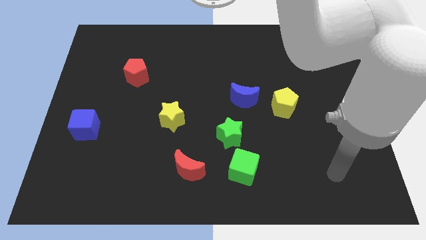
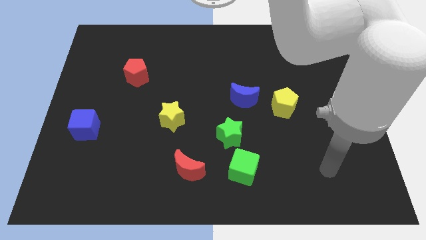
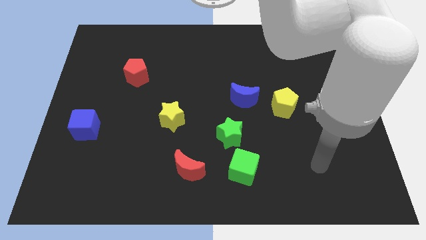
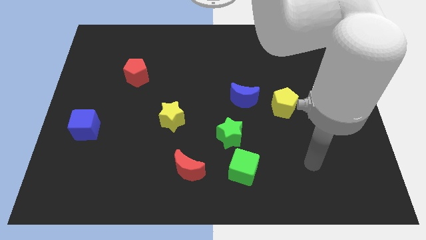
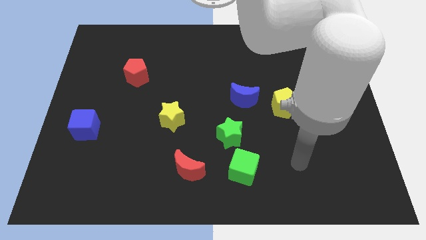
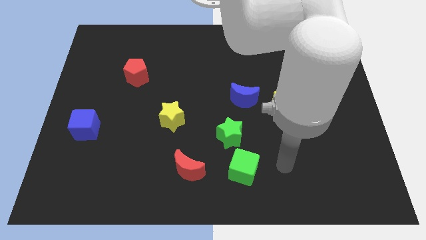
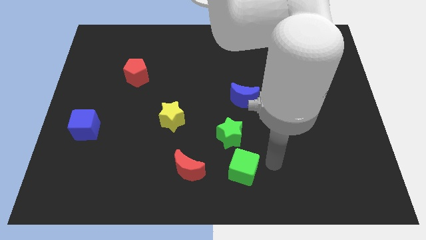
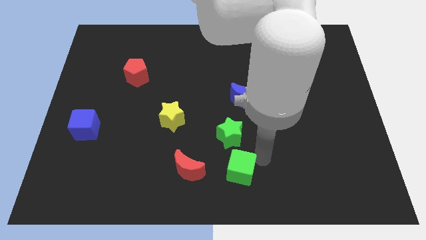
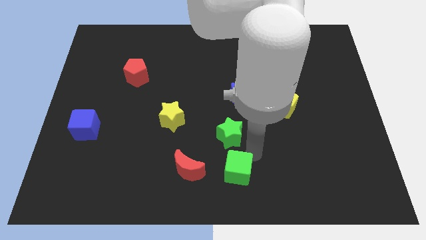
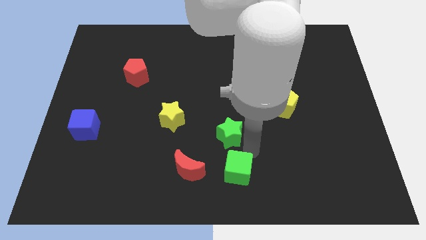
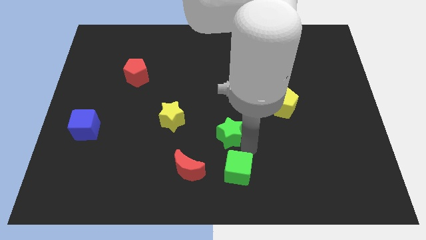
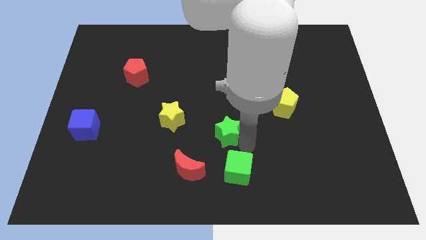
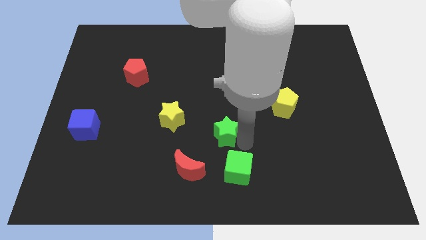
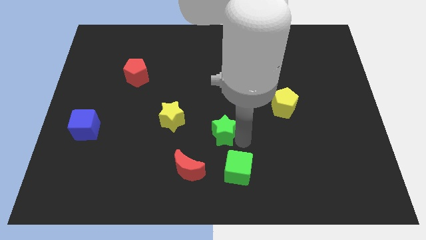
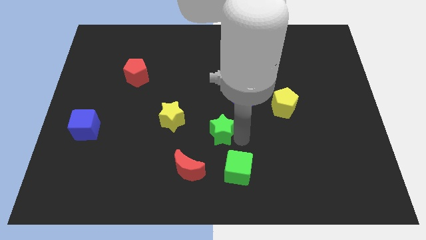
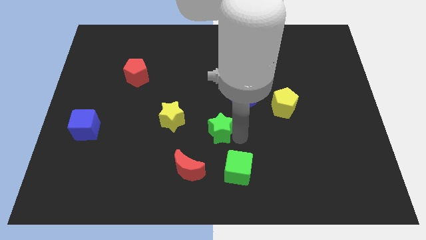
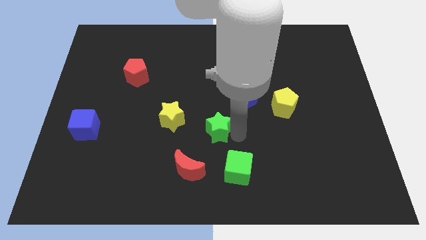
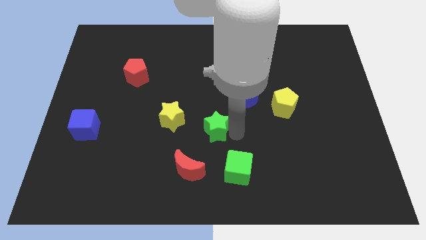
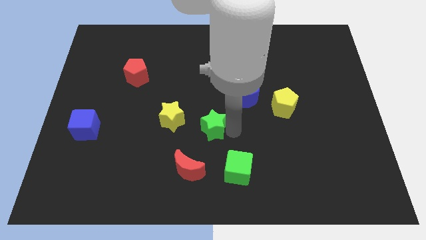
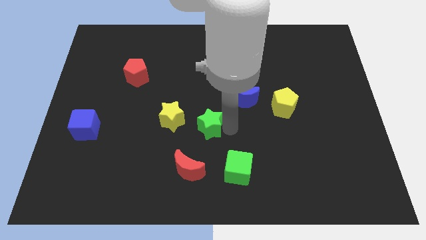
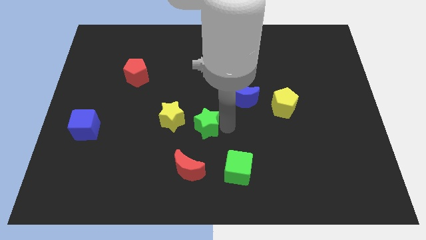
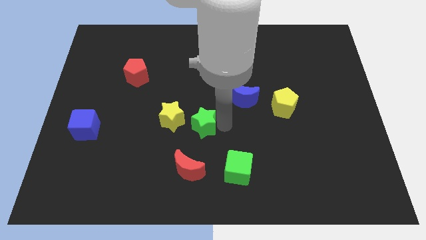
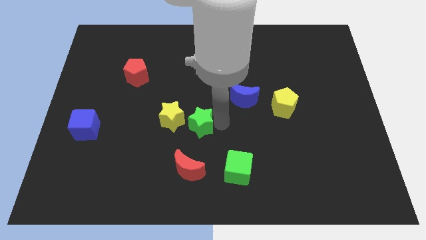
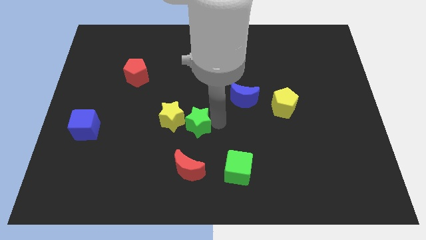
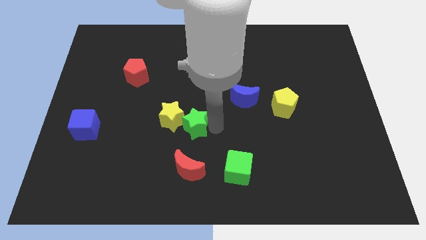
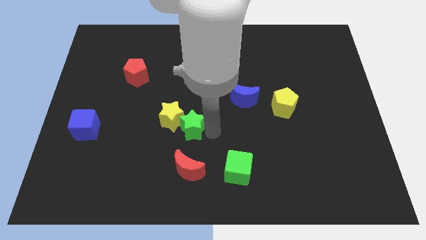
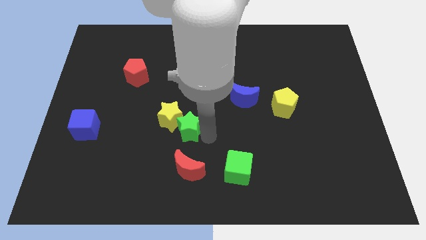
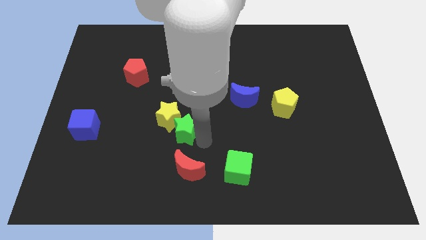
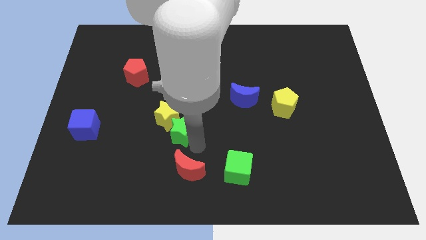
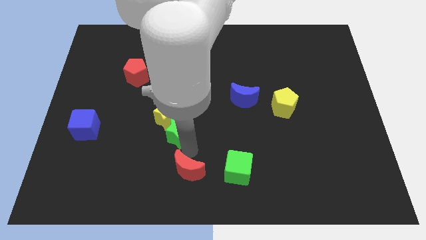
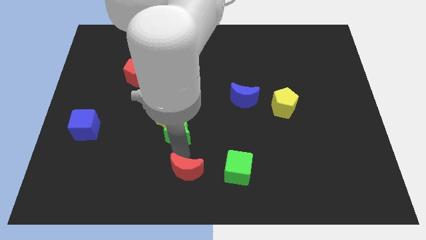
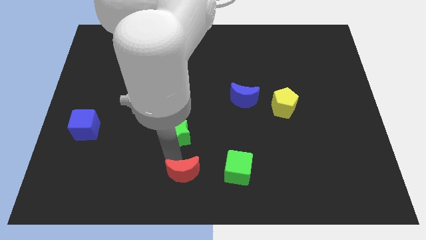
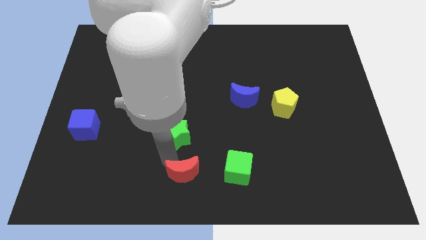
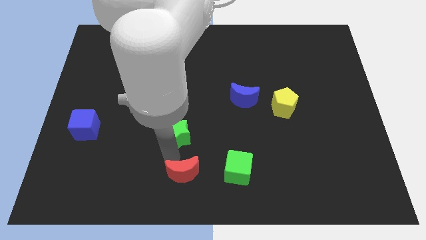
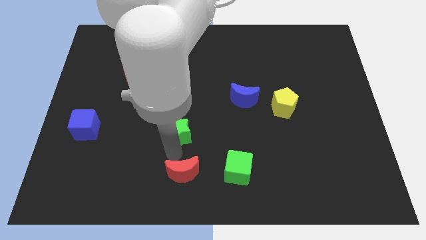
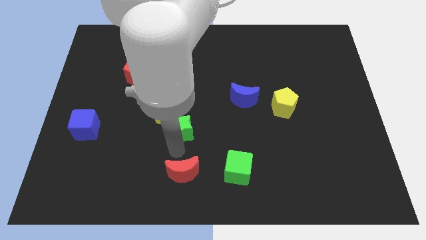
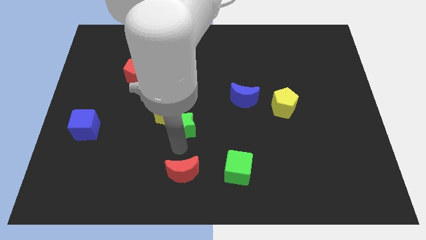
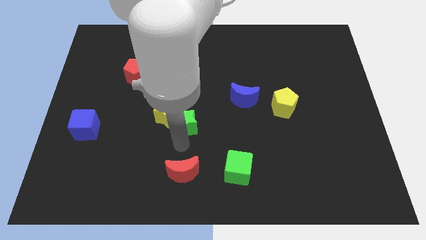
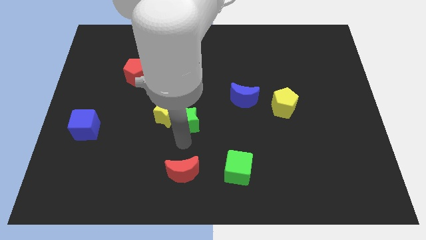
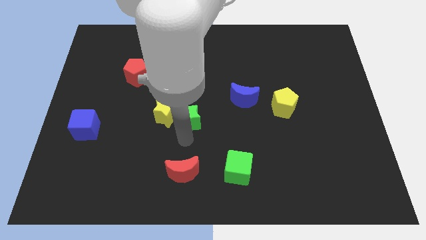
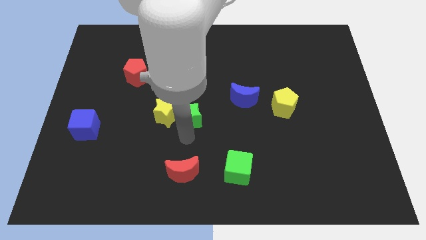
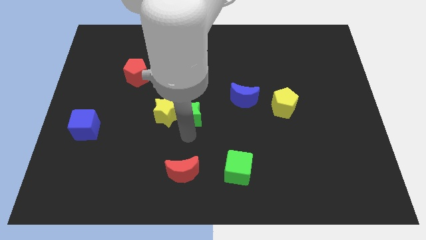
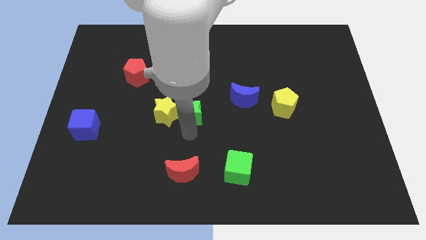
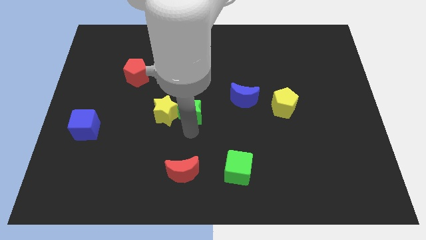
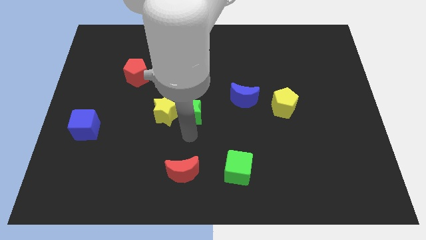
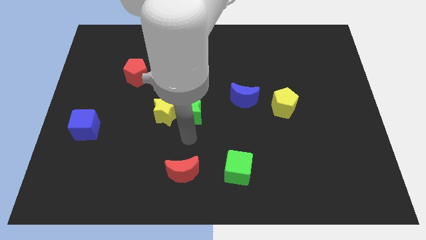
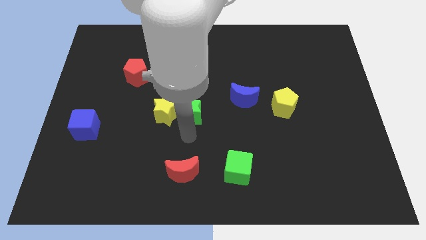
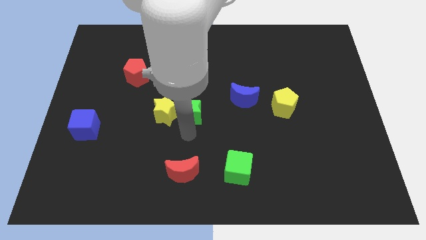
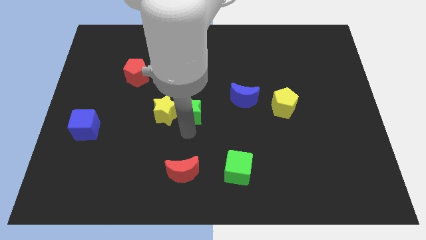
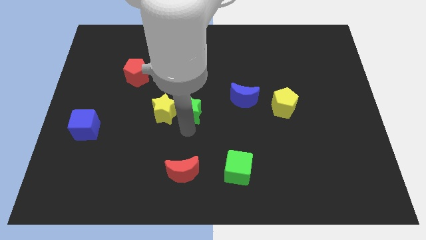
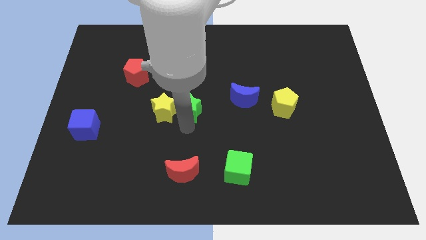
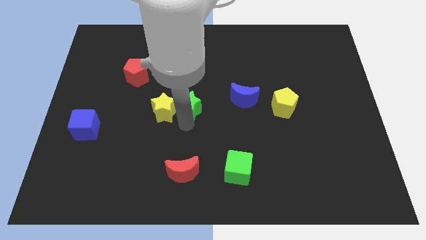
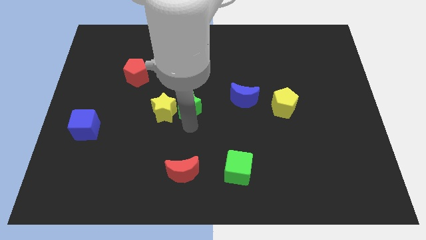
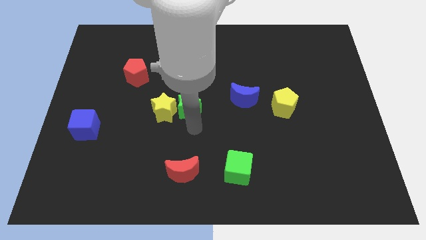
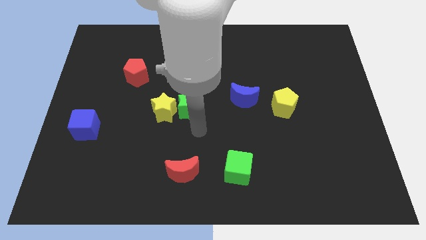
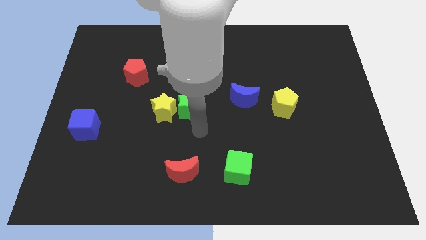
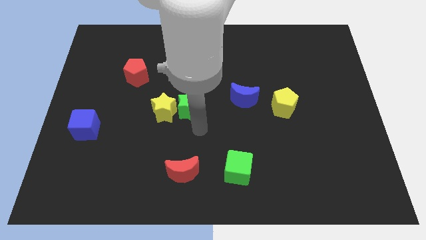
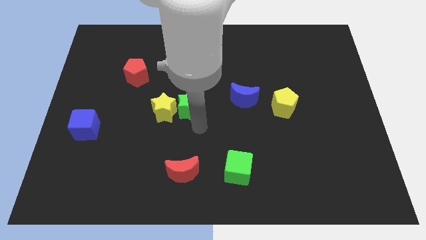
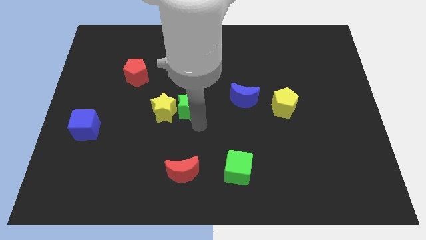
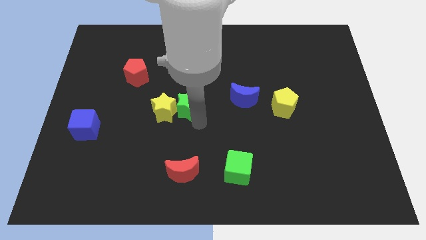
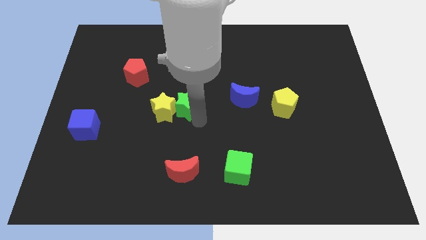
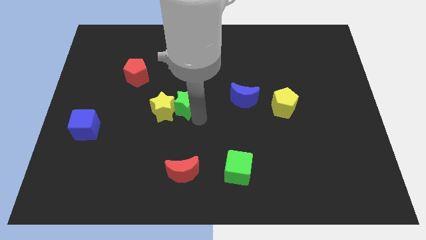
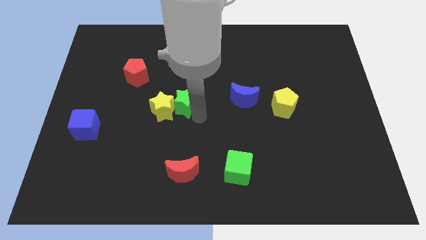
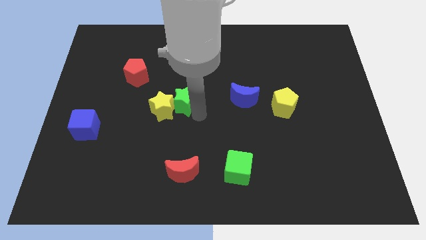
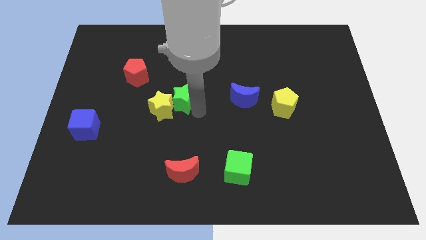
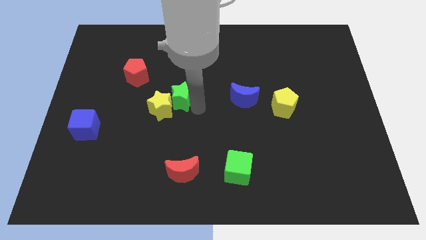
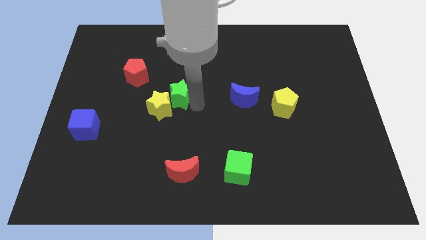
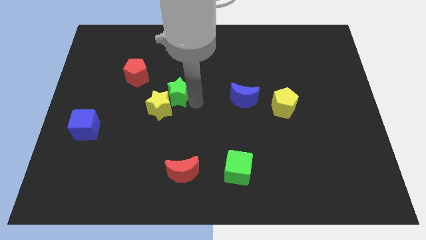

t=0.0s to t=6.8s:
put the green star above the yellow star
